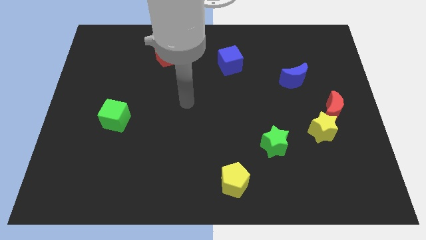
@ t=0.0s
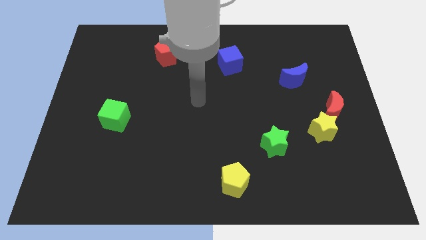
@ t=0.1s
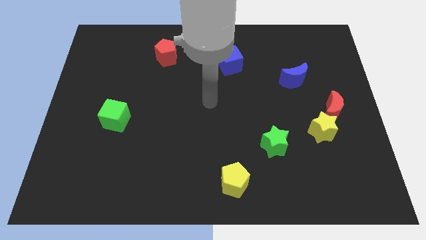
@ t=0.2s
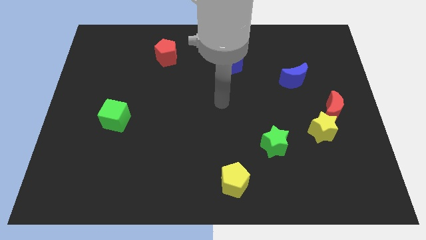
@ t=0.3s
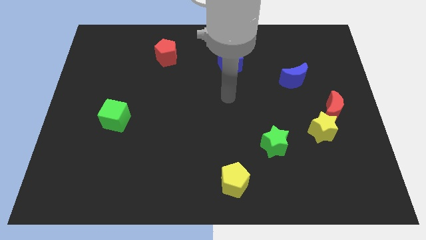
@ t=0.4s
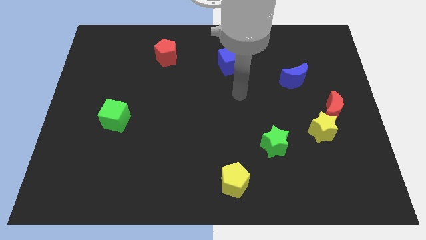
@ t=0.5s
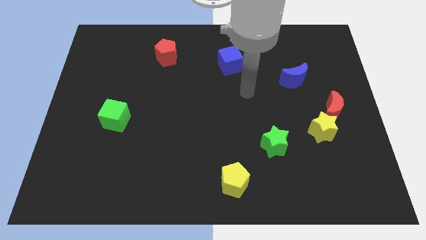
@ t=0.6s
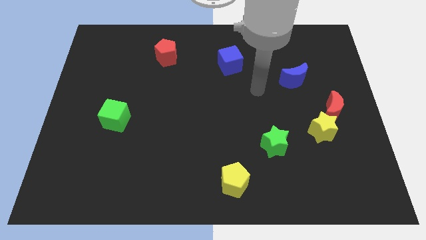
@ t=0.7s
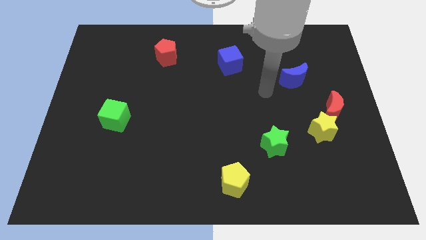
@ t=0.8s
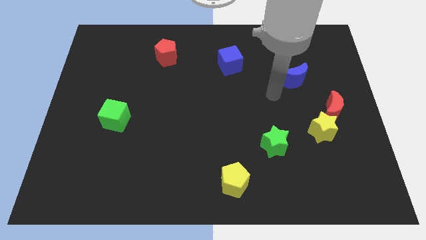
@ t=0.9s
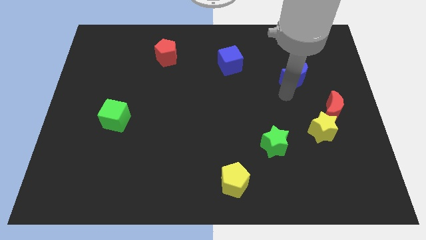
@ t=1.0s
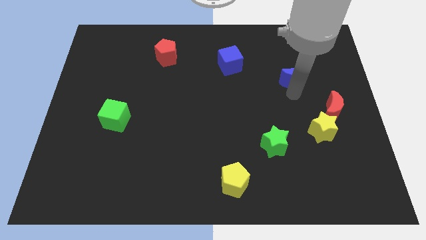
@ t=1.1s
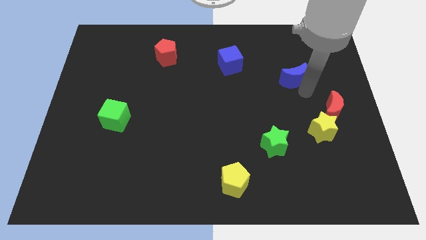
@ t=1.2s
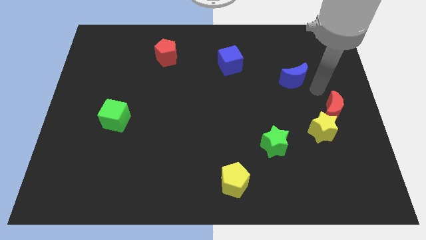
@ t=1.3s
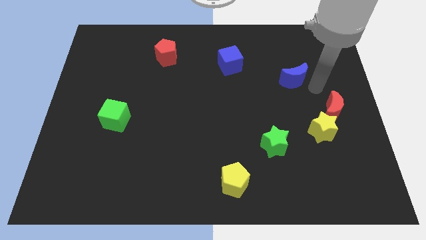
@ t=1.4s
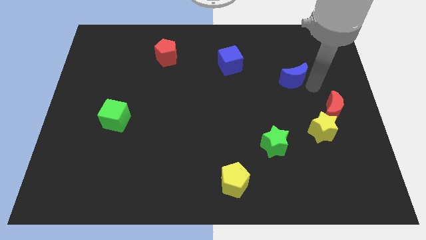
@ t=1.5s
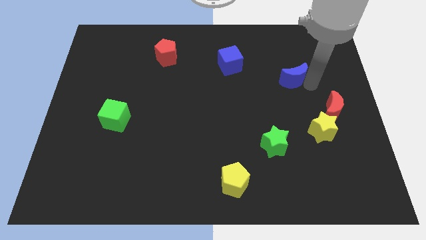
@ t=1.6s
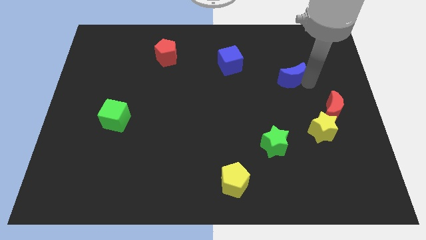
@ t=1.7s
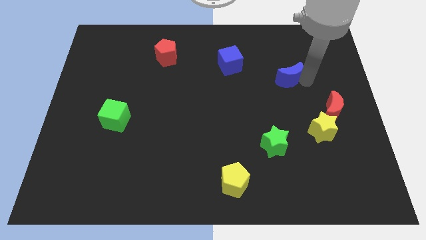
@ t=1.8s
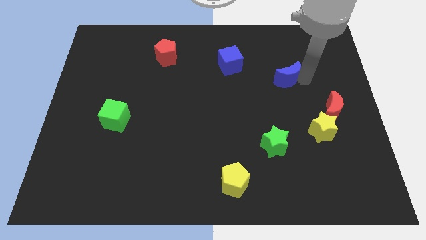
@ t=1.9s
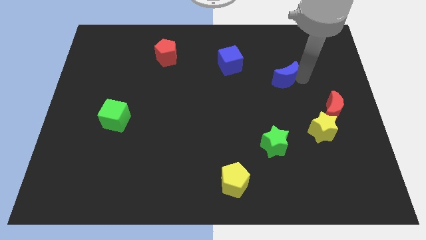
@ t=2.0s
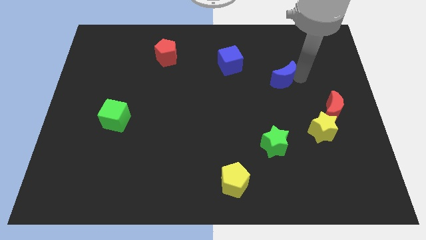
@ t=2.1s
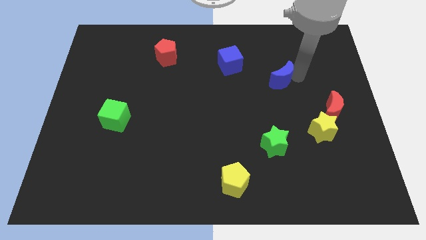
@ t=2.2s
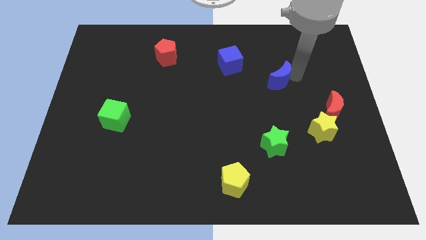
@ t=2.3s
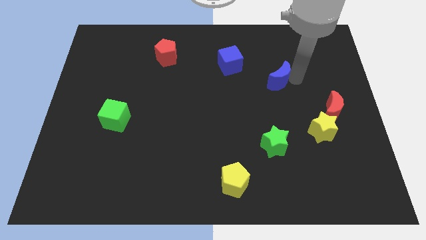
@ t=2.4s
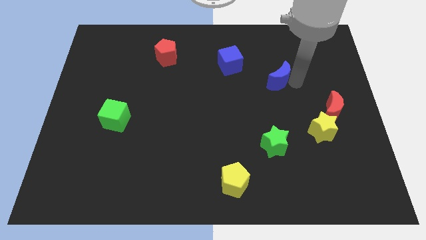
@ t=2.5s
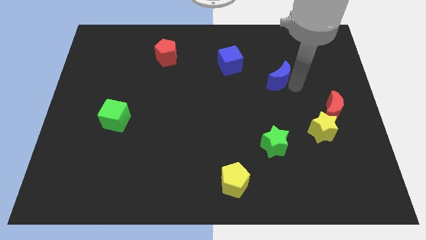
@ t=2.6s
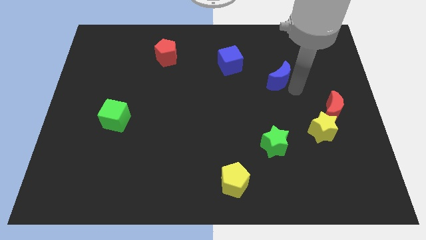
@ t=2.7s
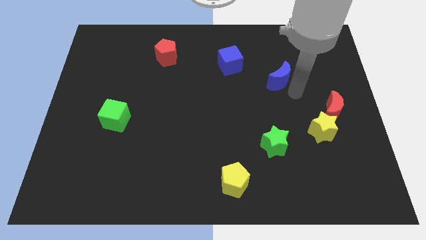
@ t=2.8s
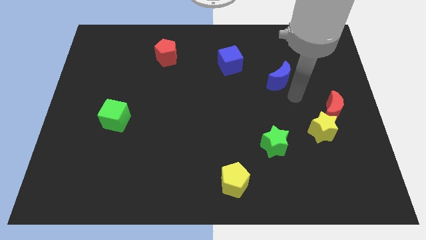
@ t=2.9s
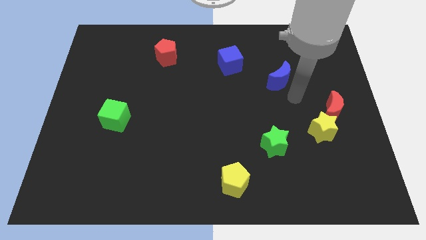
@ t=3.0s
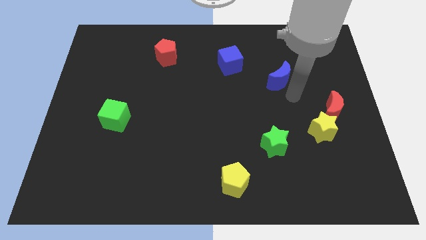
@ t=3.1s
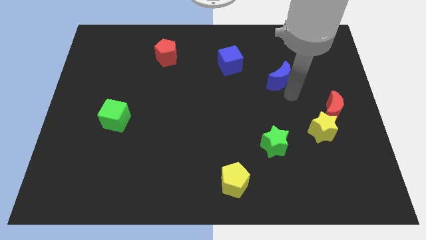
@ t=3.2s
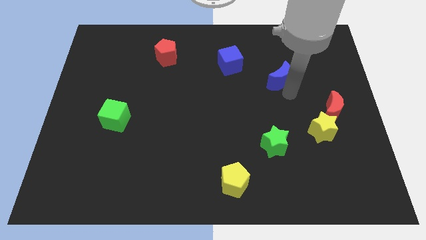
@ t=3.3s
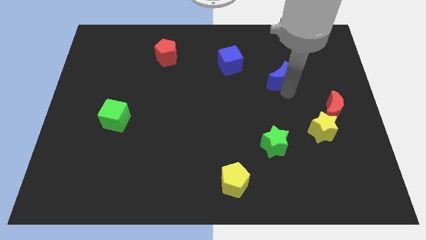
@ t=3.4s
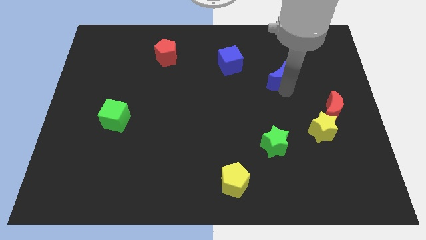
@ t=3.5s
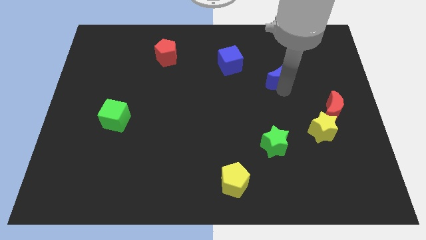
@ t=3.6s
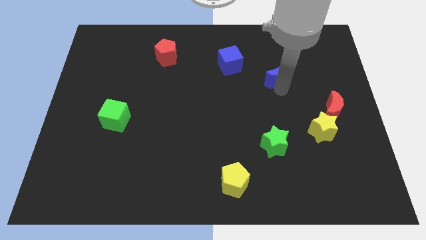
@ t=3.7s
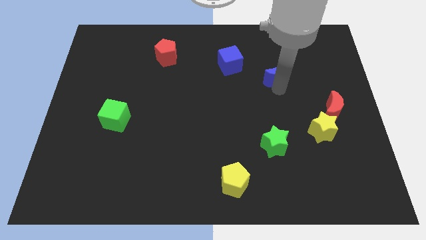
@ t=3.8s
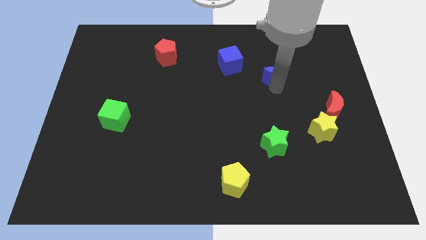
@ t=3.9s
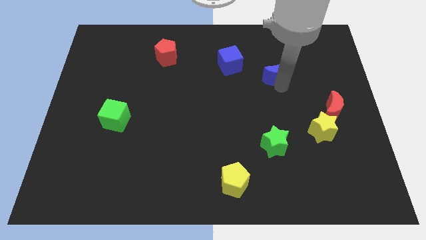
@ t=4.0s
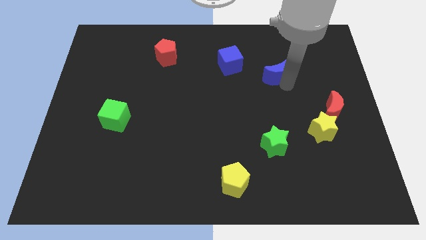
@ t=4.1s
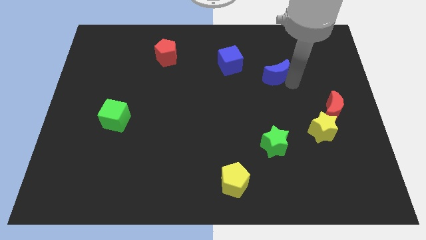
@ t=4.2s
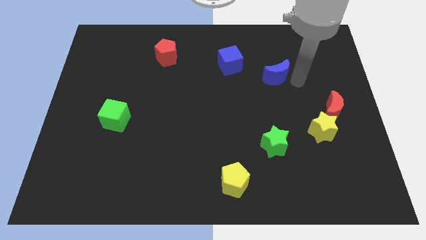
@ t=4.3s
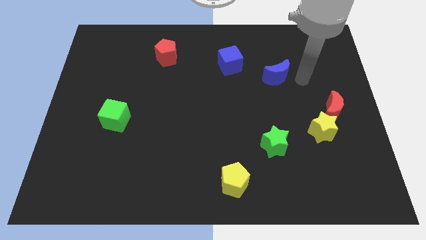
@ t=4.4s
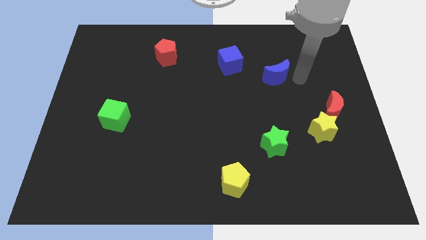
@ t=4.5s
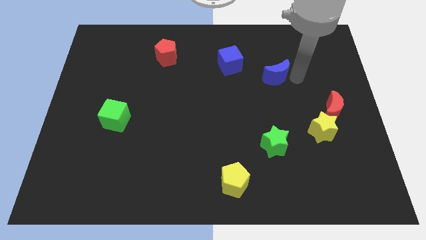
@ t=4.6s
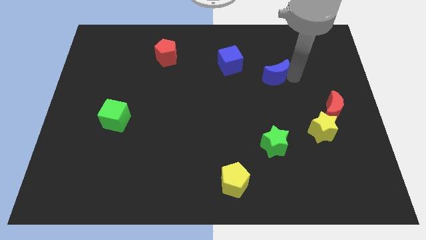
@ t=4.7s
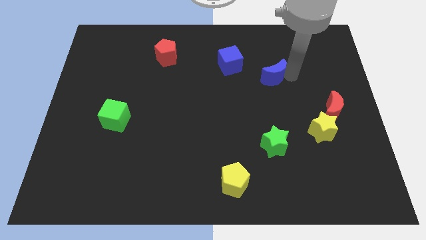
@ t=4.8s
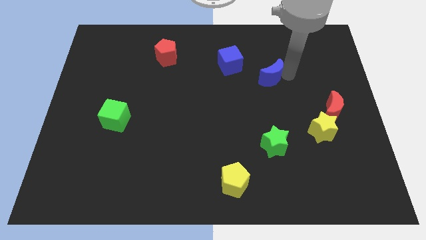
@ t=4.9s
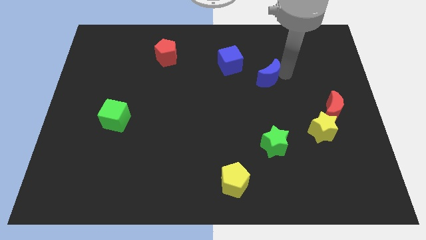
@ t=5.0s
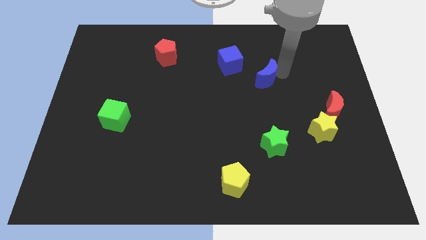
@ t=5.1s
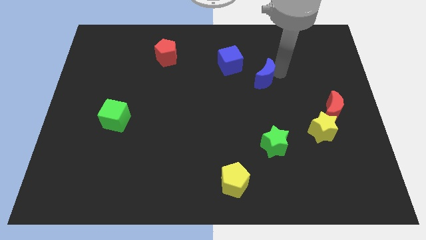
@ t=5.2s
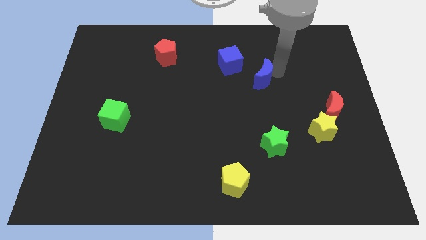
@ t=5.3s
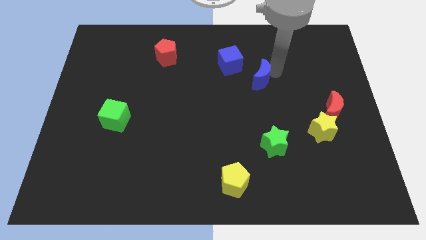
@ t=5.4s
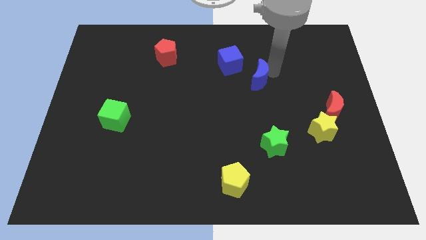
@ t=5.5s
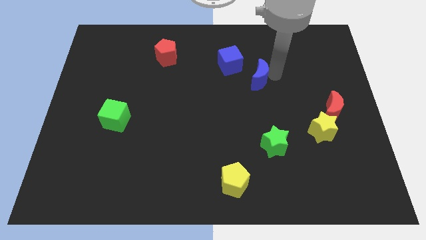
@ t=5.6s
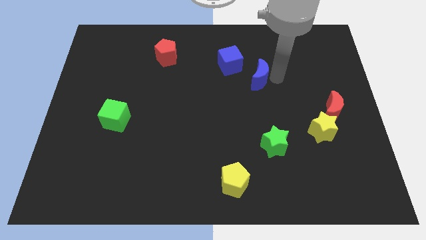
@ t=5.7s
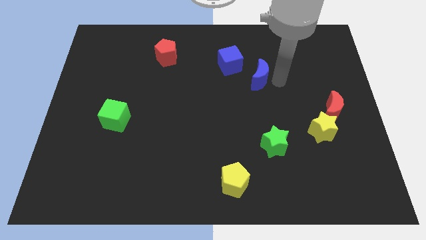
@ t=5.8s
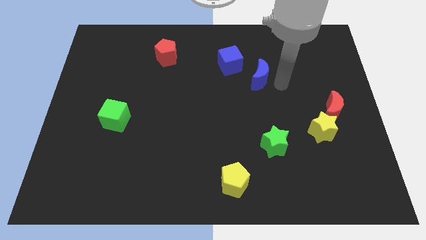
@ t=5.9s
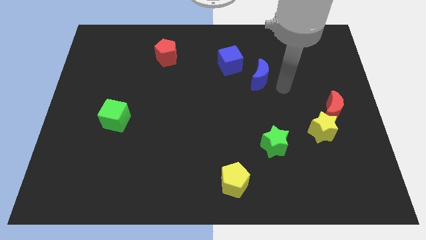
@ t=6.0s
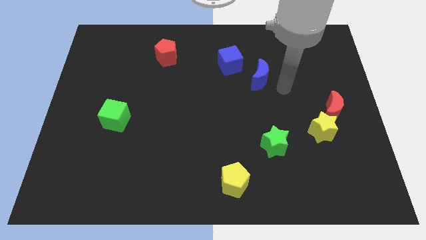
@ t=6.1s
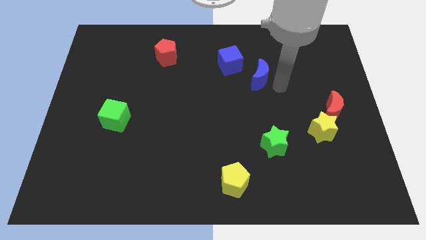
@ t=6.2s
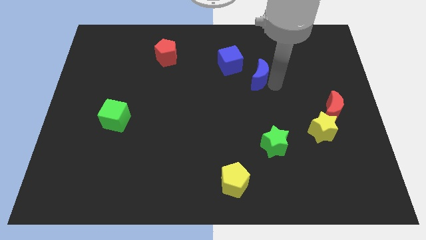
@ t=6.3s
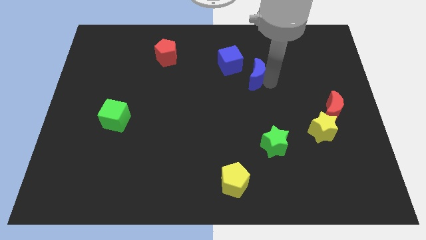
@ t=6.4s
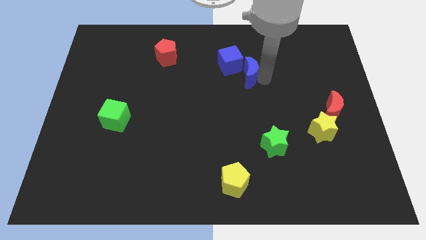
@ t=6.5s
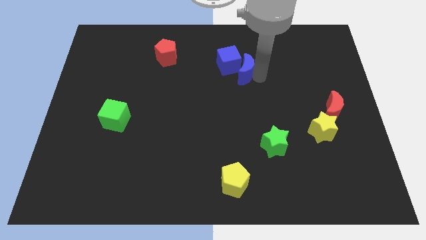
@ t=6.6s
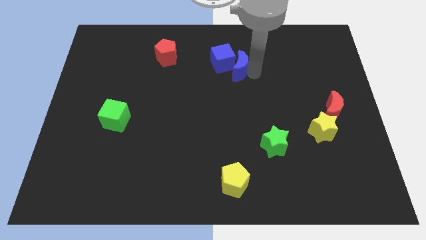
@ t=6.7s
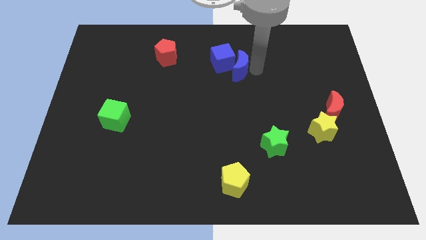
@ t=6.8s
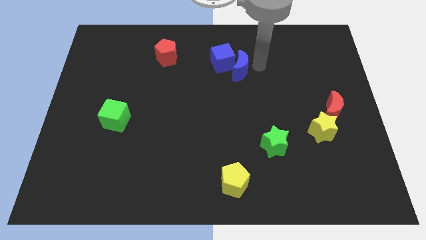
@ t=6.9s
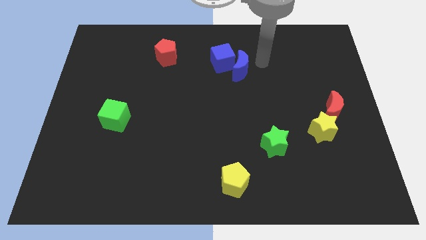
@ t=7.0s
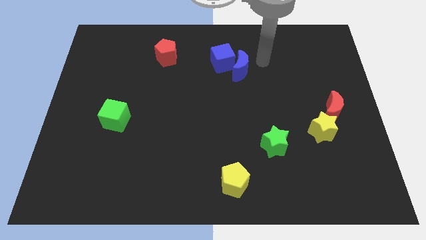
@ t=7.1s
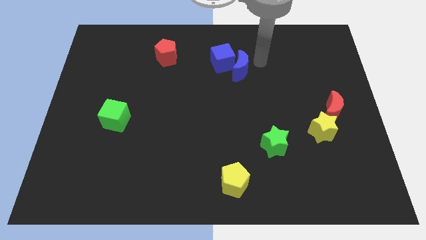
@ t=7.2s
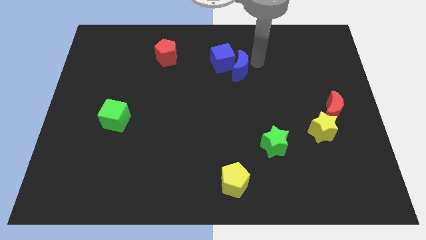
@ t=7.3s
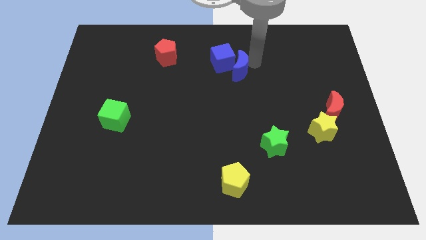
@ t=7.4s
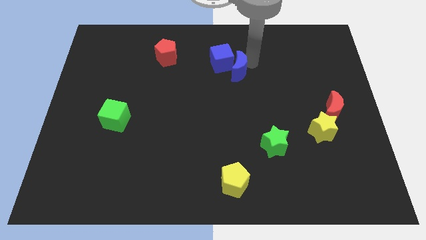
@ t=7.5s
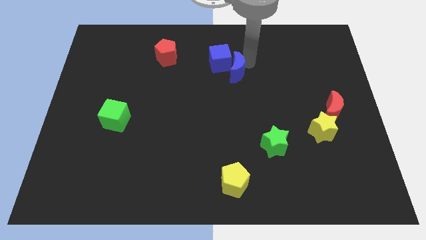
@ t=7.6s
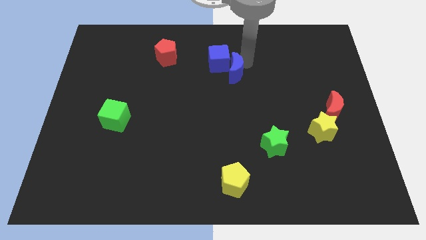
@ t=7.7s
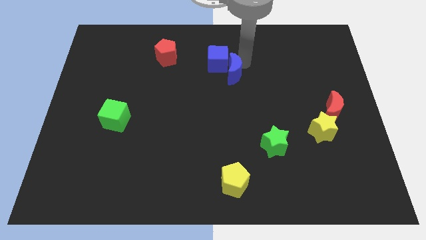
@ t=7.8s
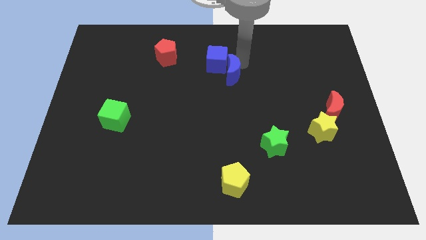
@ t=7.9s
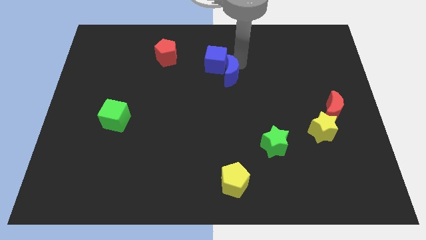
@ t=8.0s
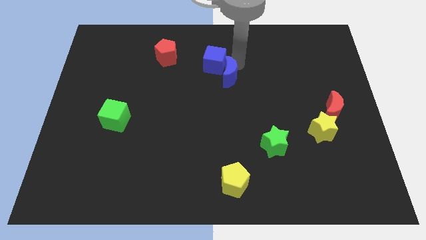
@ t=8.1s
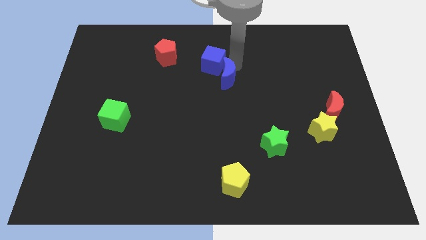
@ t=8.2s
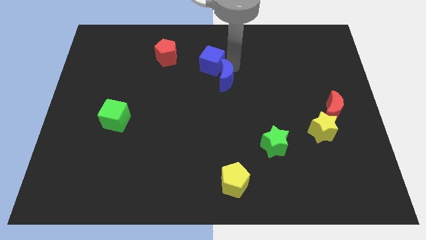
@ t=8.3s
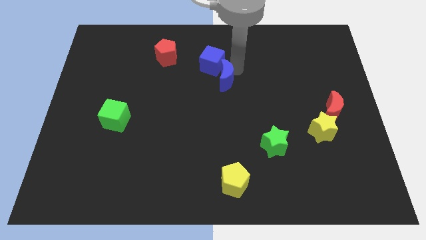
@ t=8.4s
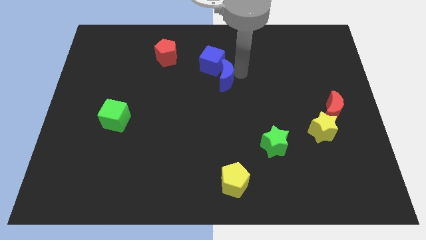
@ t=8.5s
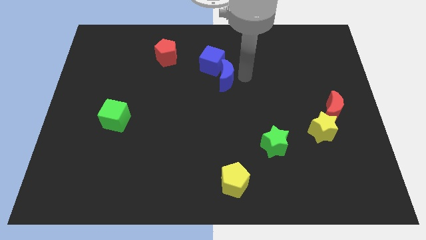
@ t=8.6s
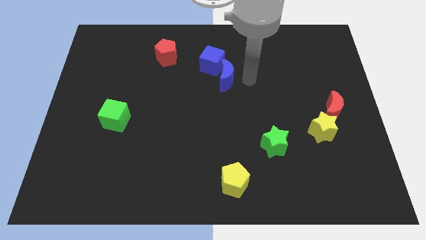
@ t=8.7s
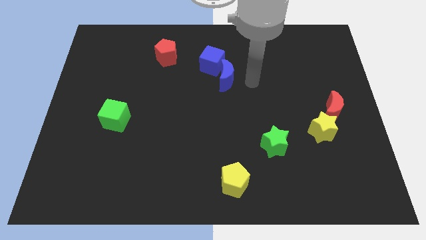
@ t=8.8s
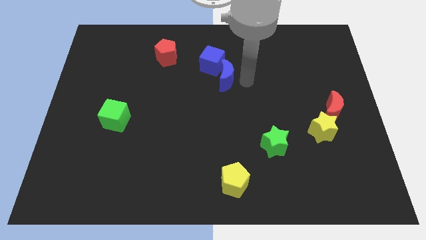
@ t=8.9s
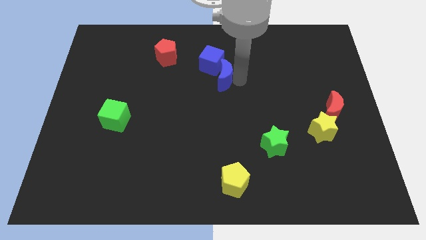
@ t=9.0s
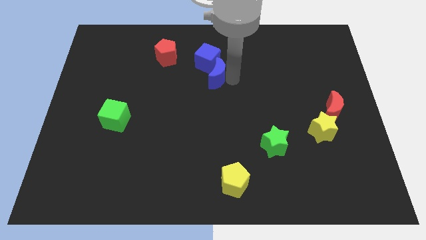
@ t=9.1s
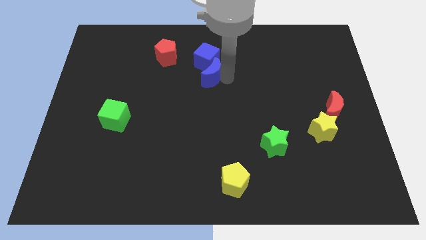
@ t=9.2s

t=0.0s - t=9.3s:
push the blue moon left
